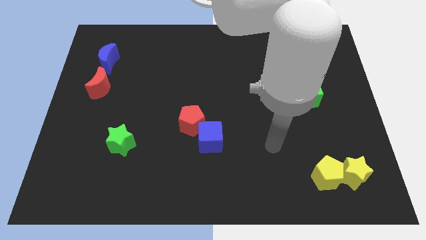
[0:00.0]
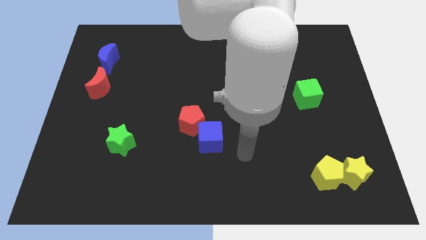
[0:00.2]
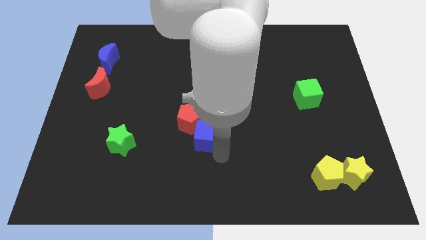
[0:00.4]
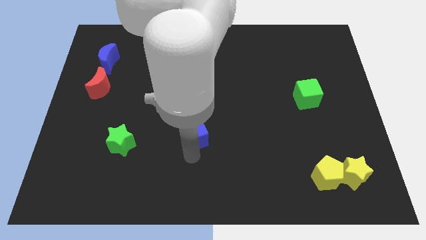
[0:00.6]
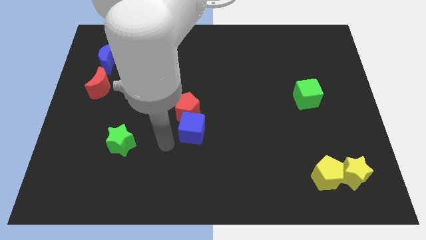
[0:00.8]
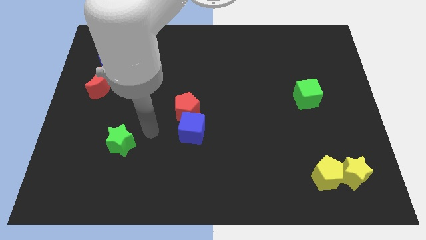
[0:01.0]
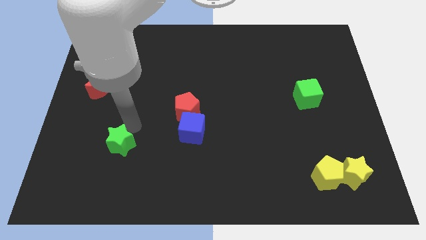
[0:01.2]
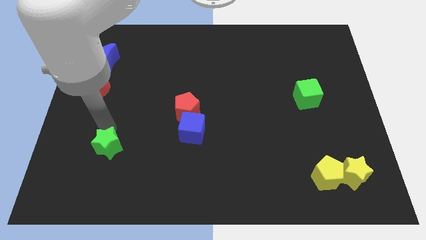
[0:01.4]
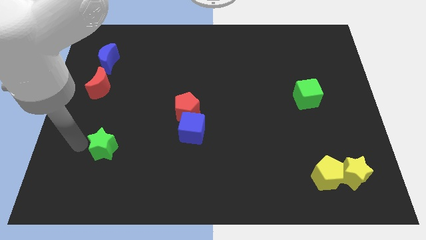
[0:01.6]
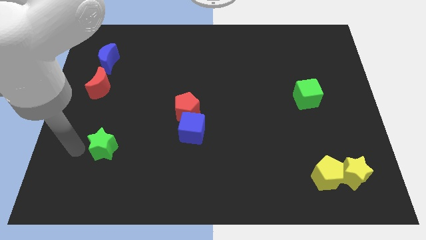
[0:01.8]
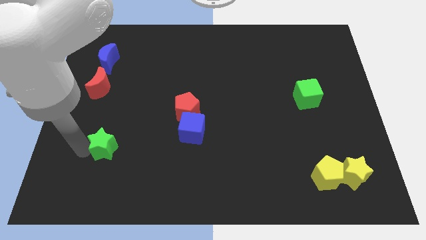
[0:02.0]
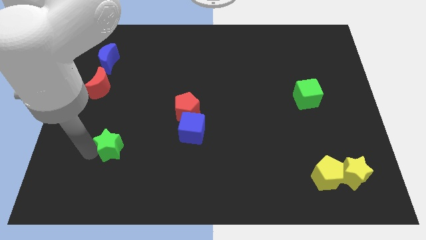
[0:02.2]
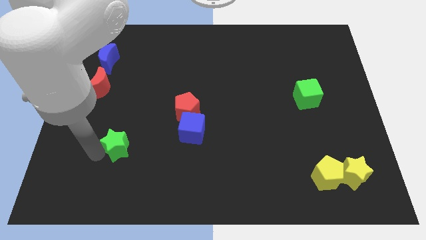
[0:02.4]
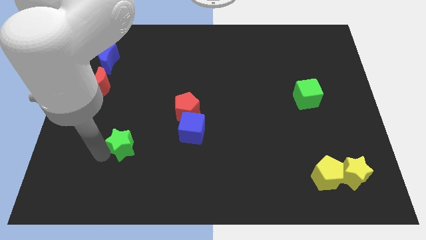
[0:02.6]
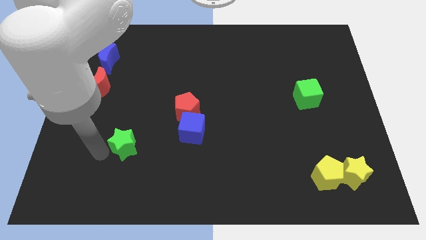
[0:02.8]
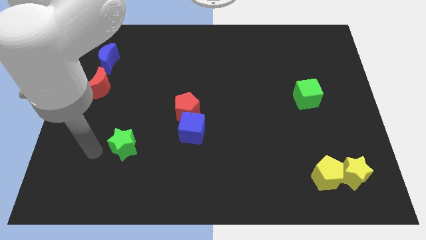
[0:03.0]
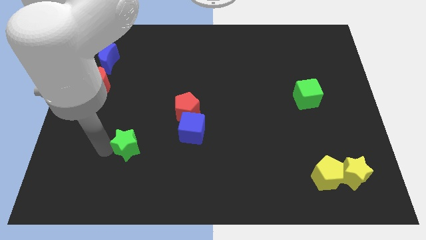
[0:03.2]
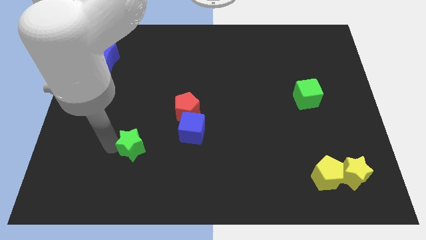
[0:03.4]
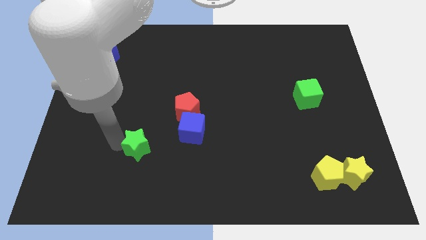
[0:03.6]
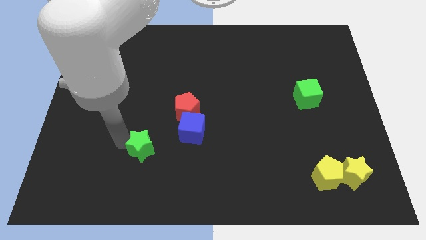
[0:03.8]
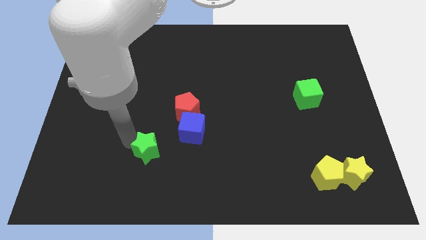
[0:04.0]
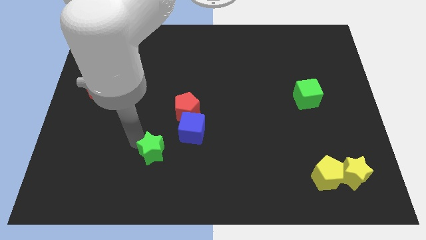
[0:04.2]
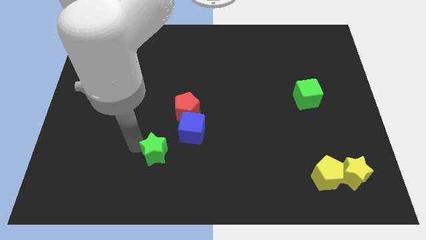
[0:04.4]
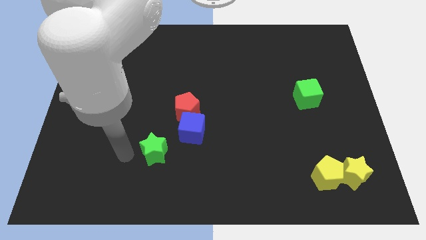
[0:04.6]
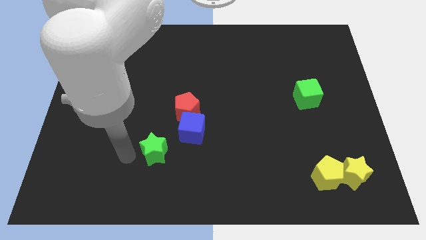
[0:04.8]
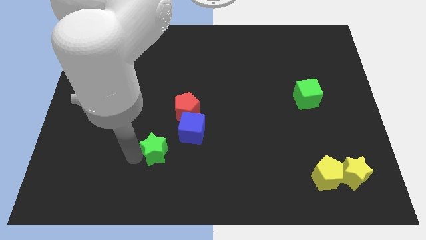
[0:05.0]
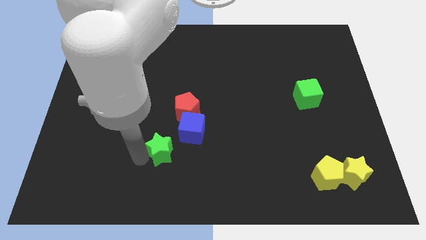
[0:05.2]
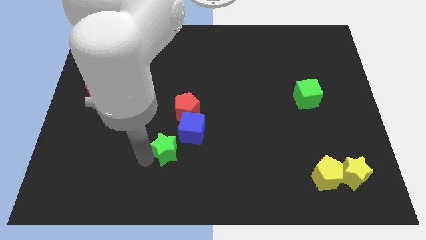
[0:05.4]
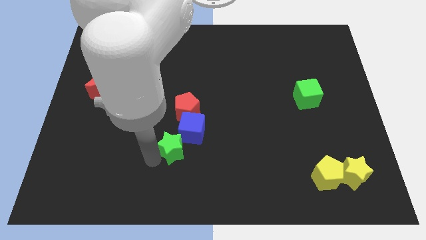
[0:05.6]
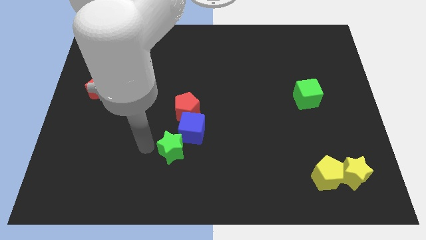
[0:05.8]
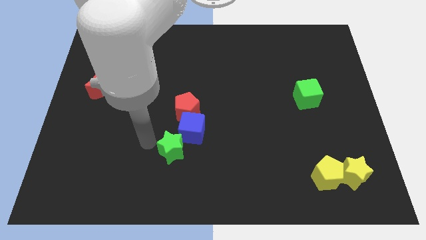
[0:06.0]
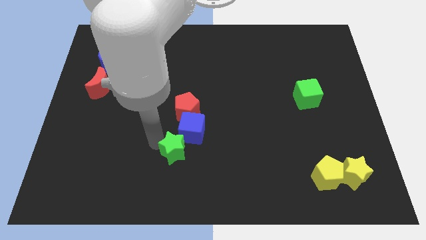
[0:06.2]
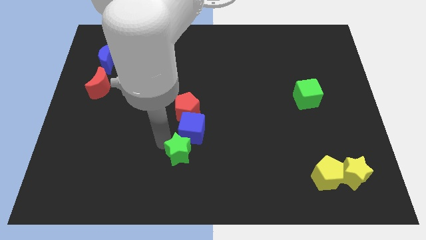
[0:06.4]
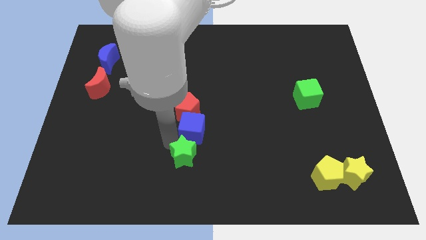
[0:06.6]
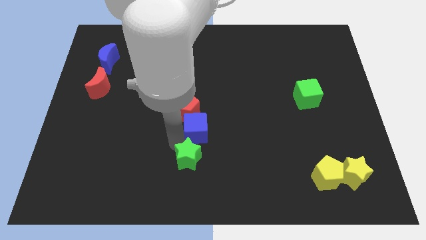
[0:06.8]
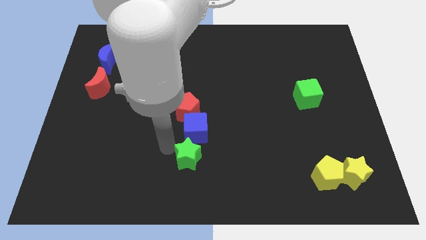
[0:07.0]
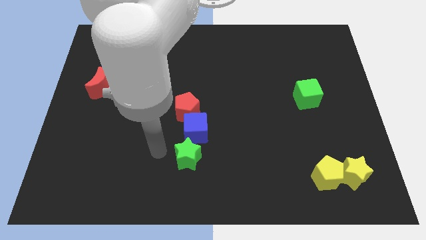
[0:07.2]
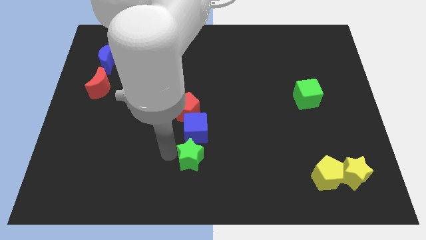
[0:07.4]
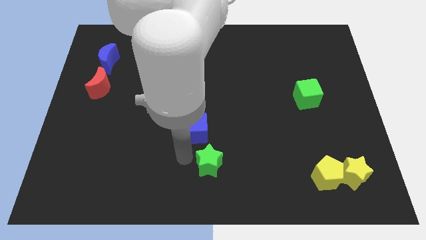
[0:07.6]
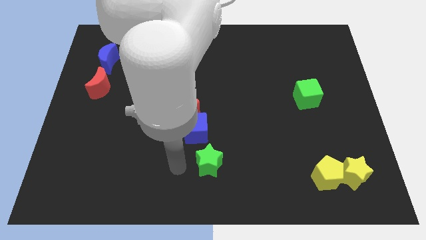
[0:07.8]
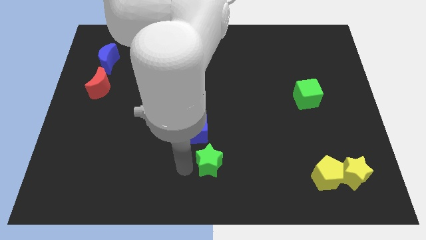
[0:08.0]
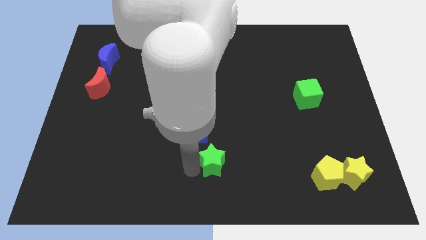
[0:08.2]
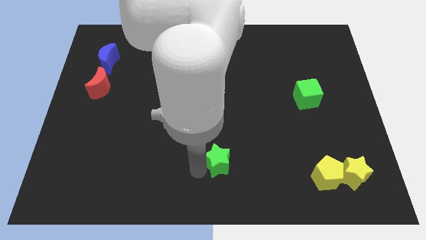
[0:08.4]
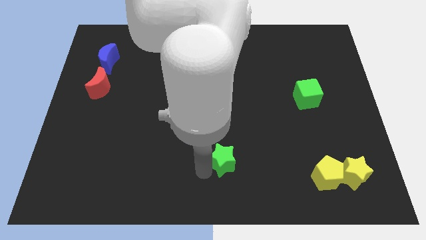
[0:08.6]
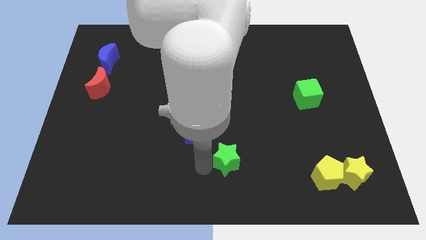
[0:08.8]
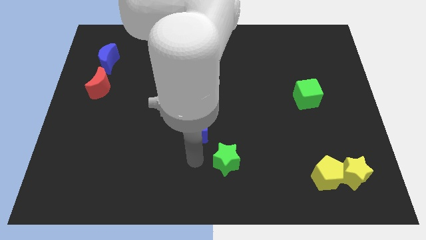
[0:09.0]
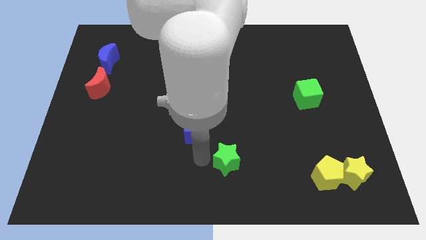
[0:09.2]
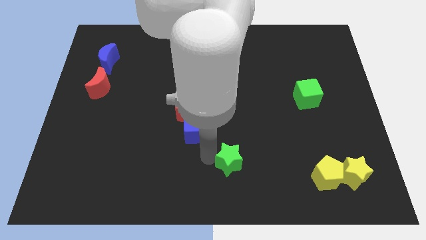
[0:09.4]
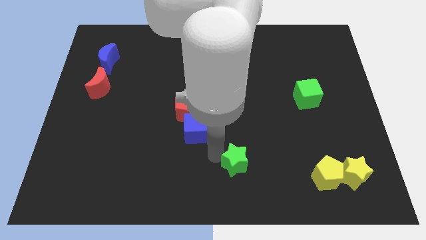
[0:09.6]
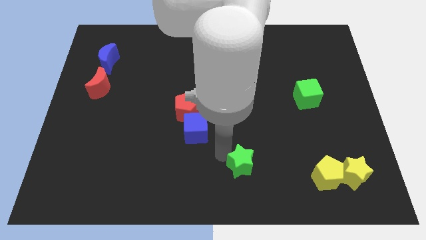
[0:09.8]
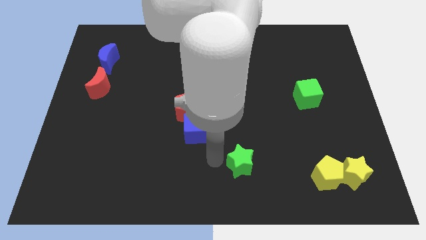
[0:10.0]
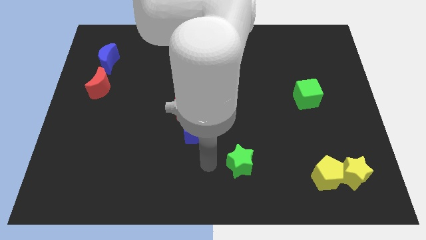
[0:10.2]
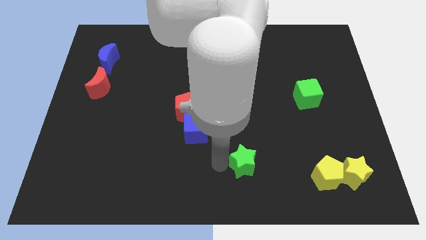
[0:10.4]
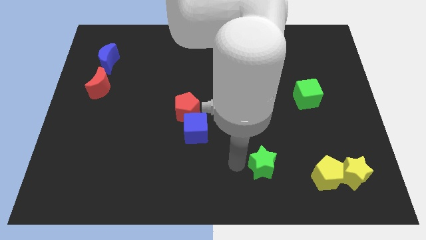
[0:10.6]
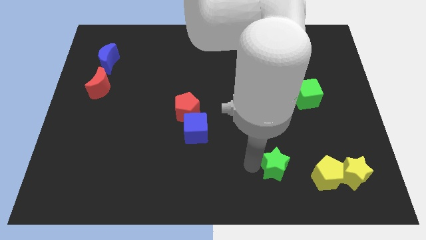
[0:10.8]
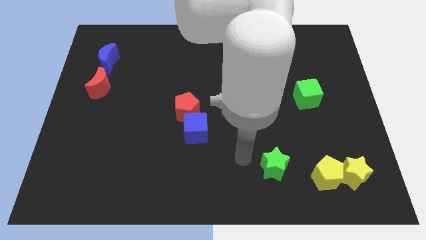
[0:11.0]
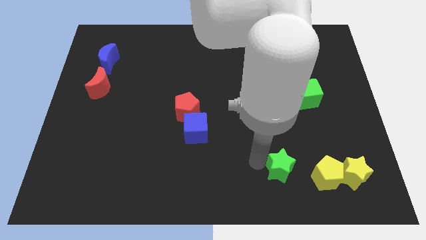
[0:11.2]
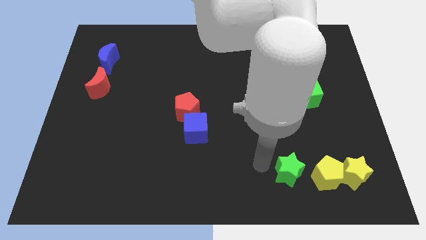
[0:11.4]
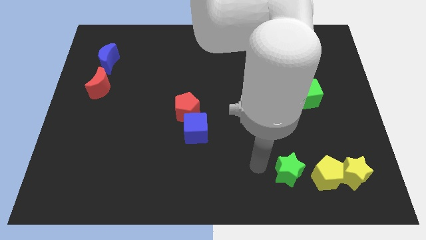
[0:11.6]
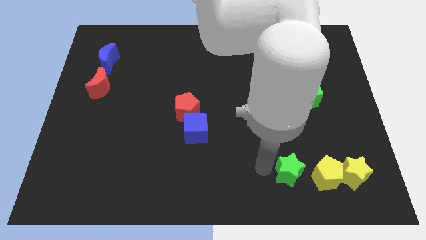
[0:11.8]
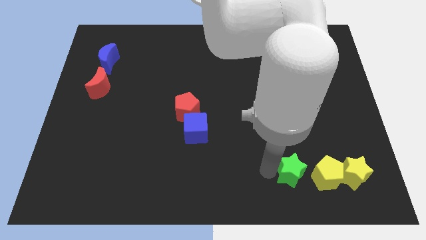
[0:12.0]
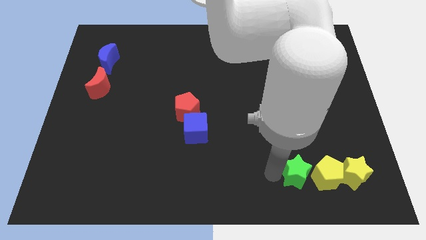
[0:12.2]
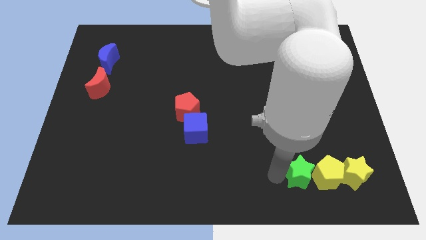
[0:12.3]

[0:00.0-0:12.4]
move the green star close to the yellow pentagon

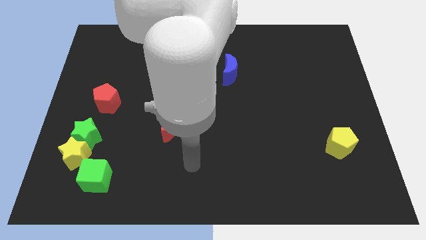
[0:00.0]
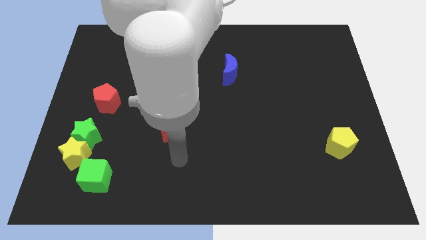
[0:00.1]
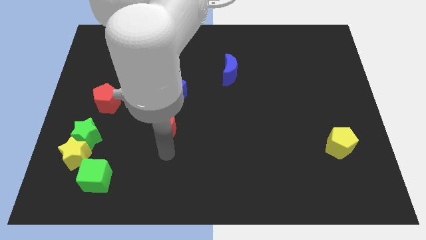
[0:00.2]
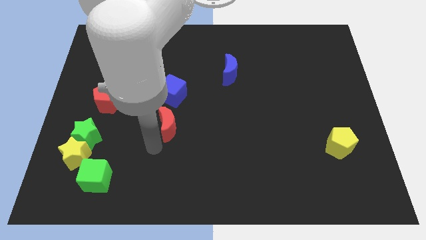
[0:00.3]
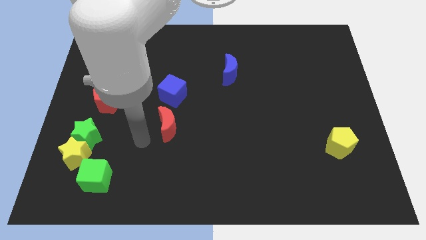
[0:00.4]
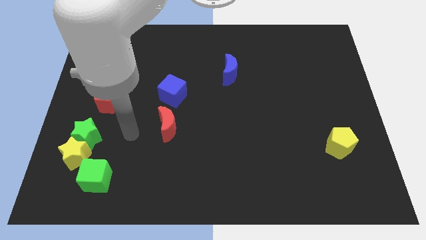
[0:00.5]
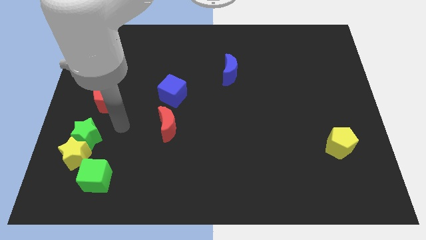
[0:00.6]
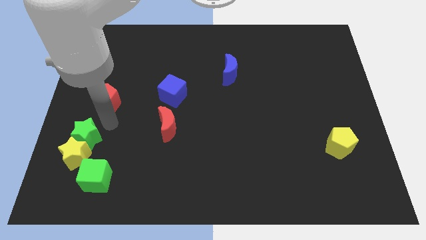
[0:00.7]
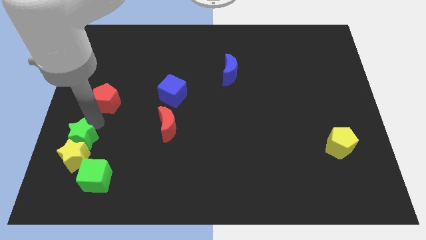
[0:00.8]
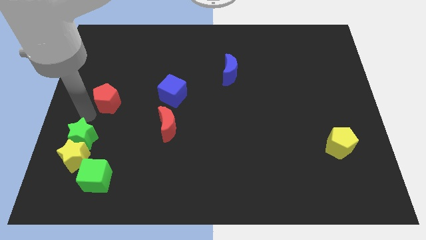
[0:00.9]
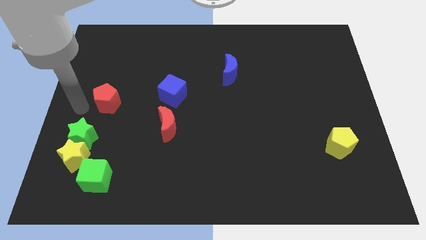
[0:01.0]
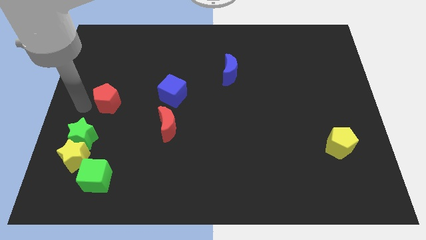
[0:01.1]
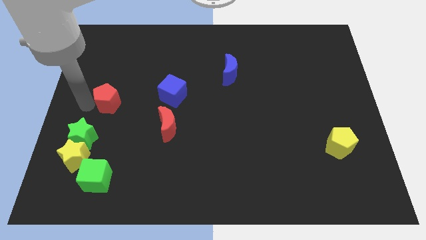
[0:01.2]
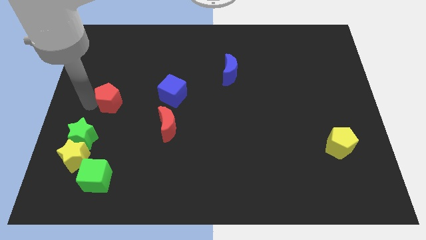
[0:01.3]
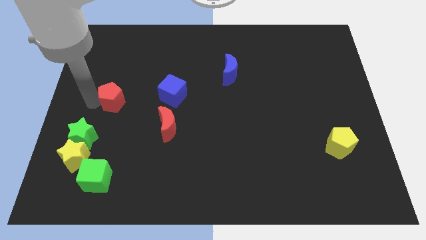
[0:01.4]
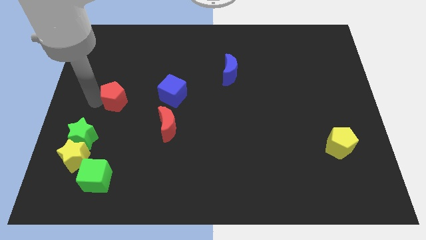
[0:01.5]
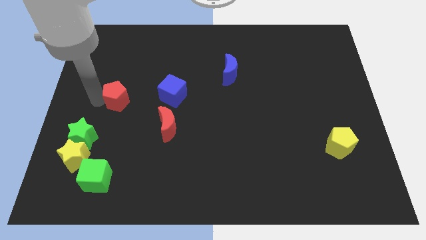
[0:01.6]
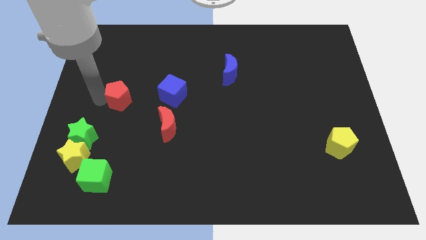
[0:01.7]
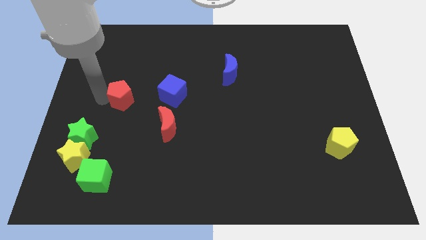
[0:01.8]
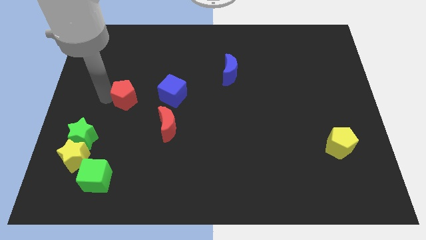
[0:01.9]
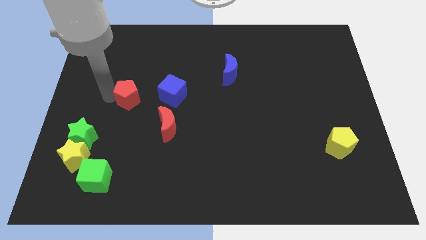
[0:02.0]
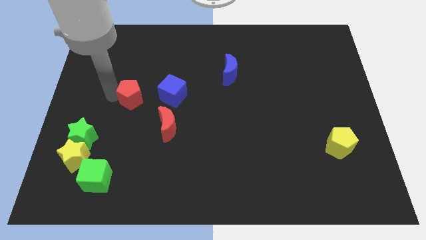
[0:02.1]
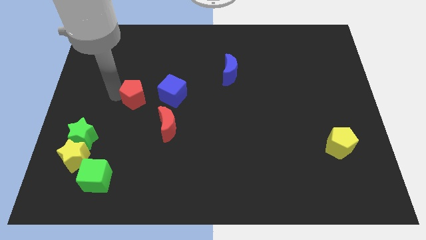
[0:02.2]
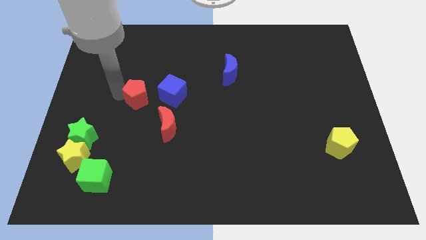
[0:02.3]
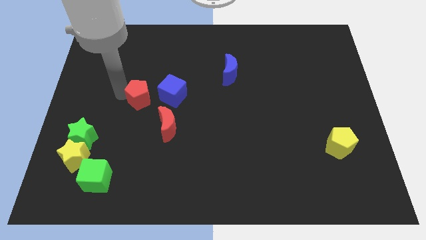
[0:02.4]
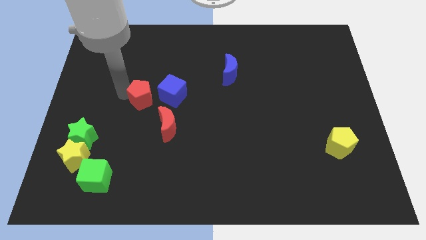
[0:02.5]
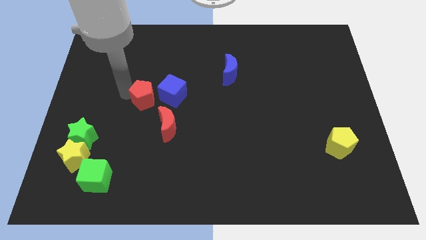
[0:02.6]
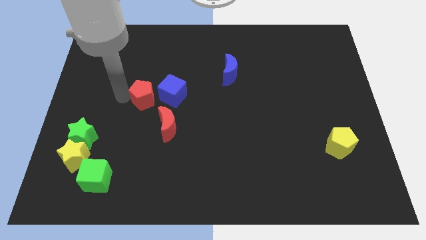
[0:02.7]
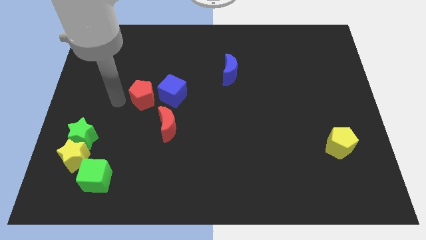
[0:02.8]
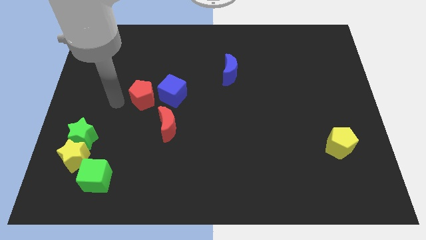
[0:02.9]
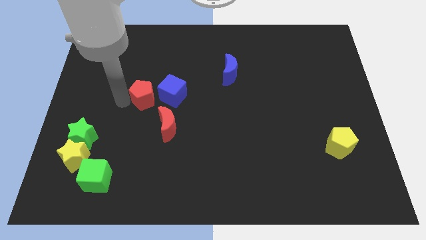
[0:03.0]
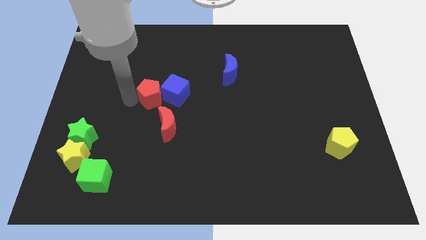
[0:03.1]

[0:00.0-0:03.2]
put the red pentagon to the blue cube
